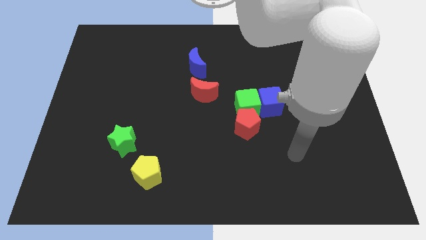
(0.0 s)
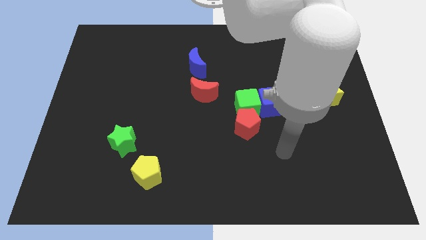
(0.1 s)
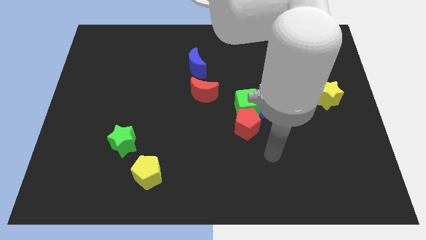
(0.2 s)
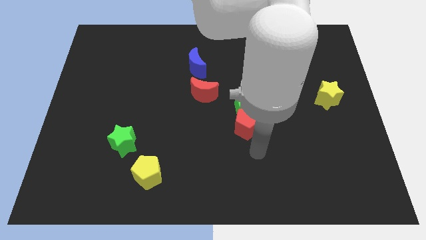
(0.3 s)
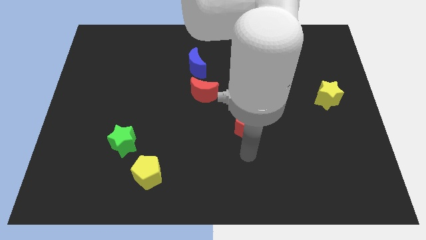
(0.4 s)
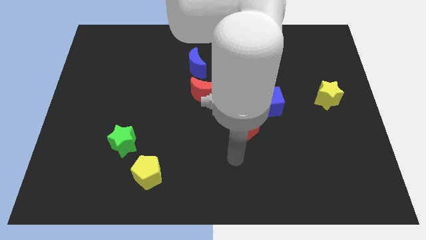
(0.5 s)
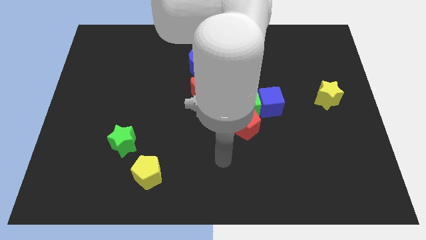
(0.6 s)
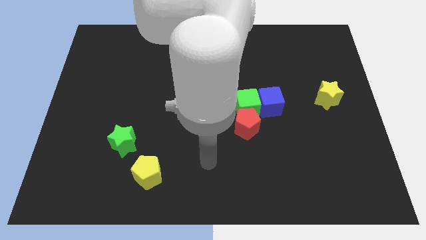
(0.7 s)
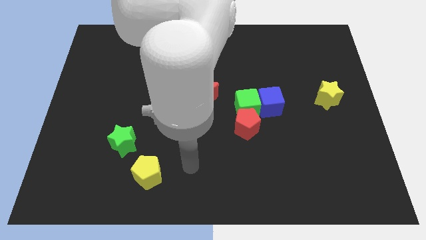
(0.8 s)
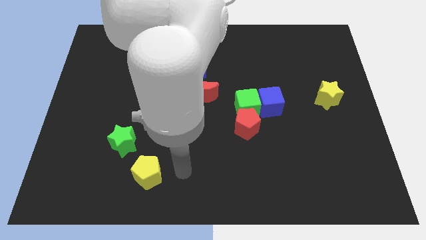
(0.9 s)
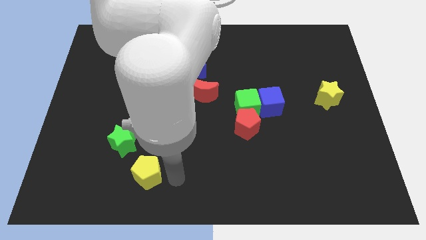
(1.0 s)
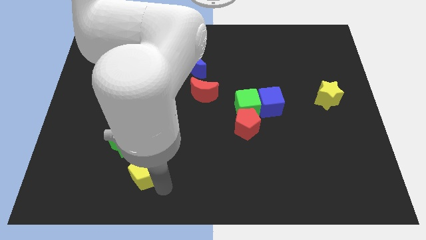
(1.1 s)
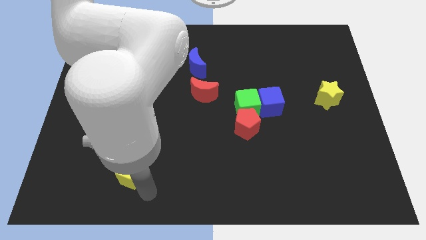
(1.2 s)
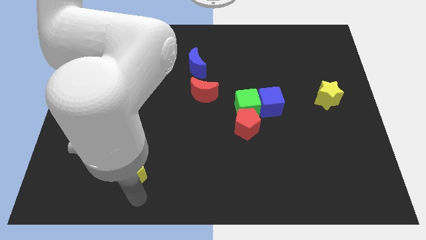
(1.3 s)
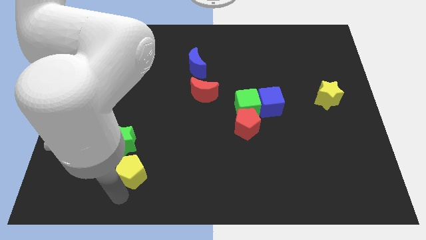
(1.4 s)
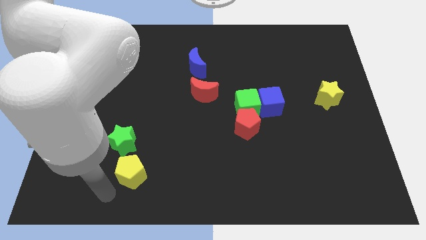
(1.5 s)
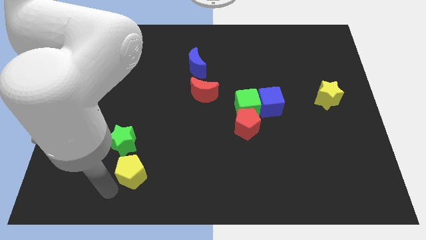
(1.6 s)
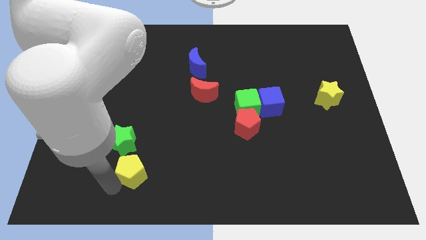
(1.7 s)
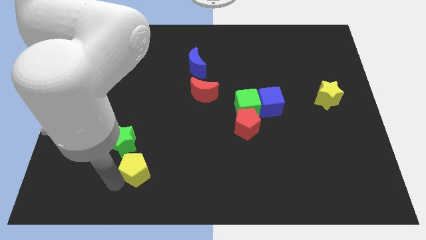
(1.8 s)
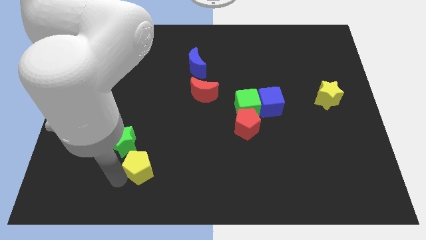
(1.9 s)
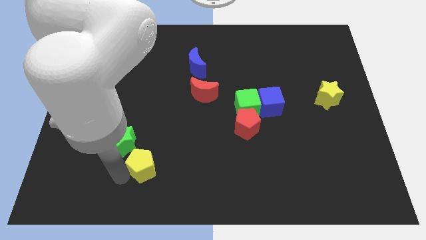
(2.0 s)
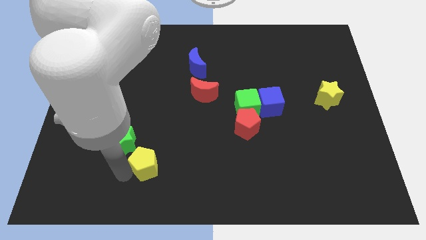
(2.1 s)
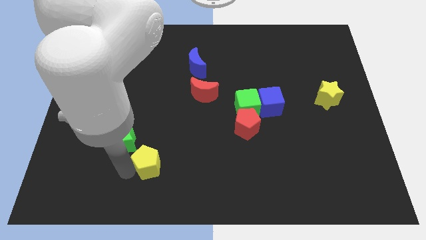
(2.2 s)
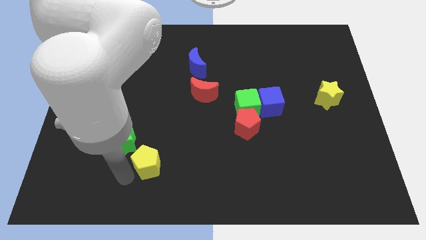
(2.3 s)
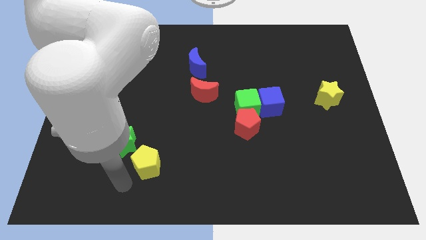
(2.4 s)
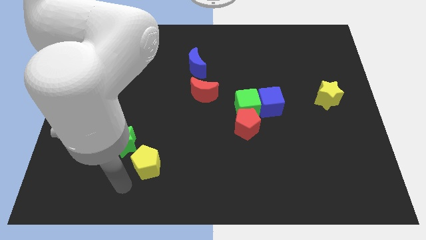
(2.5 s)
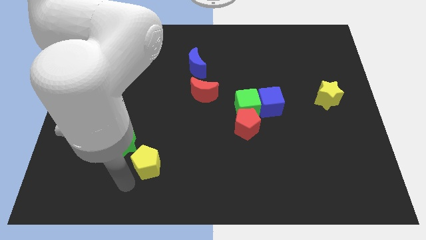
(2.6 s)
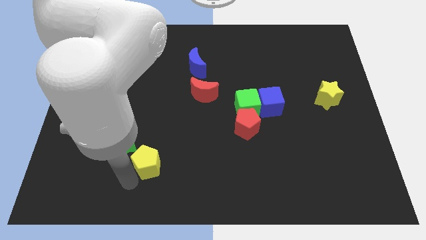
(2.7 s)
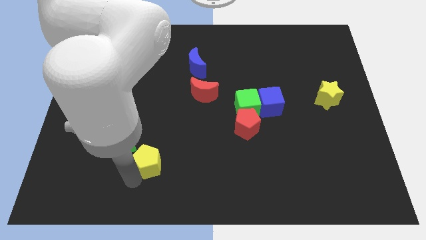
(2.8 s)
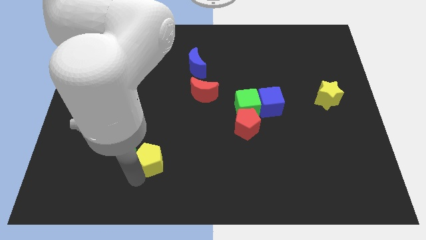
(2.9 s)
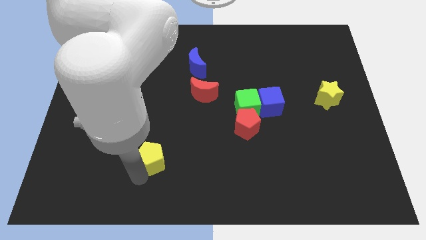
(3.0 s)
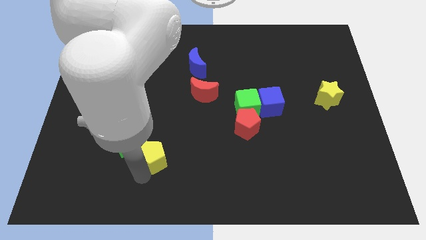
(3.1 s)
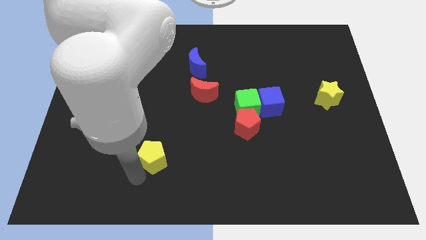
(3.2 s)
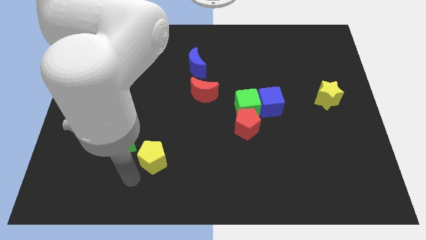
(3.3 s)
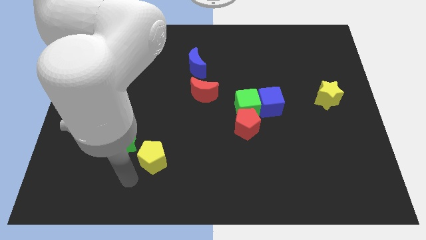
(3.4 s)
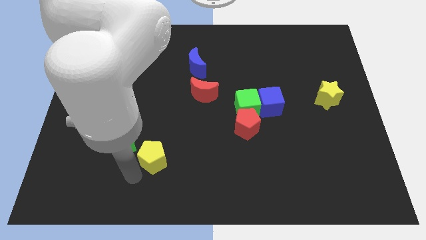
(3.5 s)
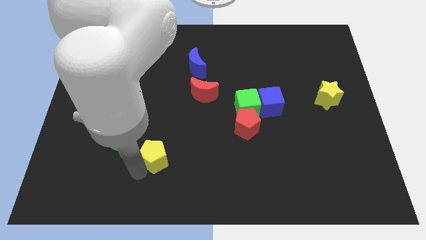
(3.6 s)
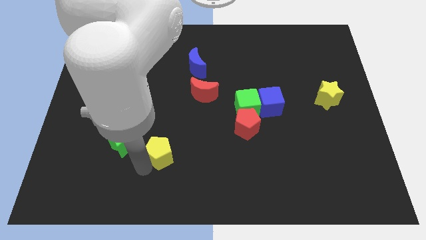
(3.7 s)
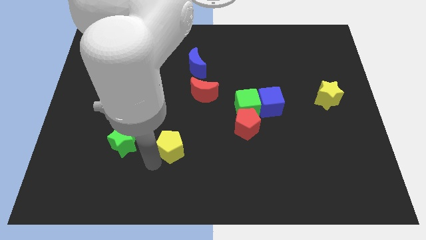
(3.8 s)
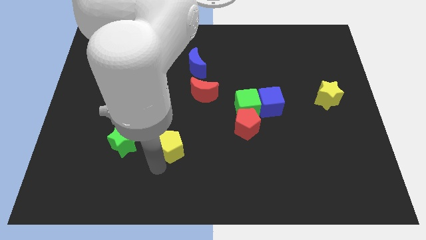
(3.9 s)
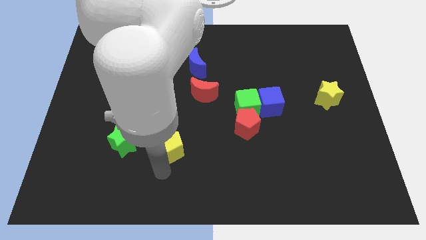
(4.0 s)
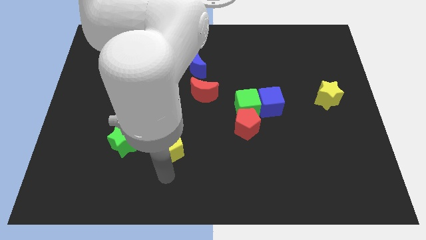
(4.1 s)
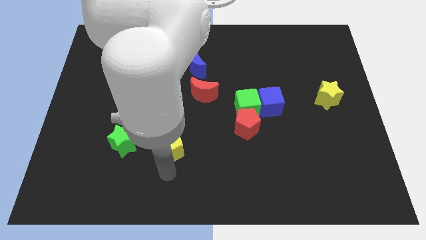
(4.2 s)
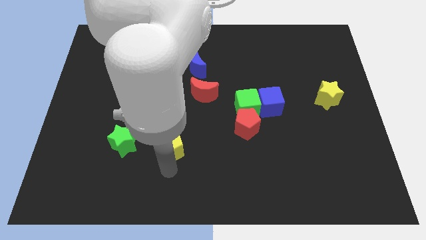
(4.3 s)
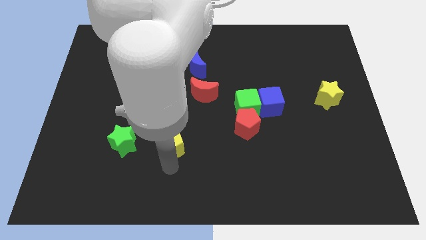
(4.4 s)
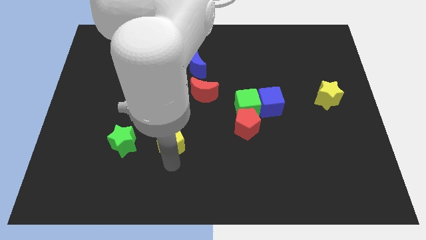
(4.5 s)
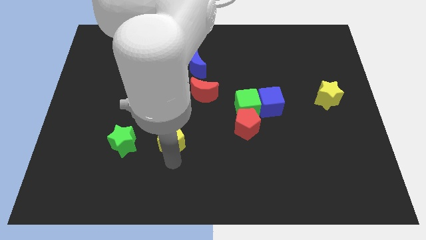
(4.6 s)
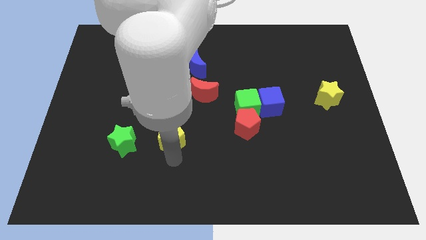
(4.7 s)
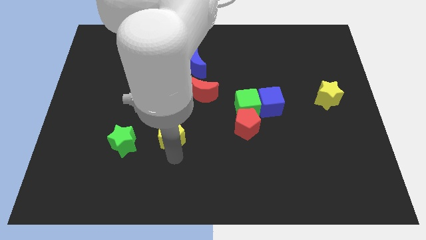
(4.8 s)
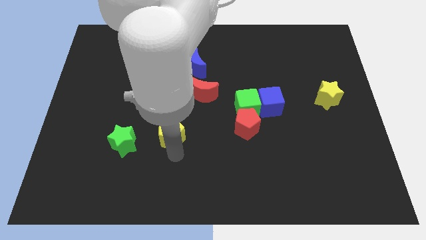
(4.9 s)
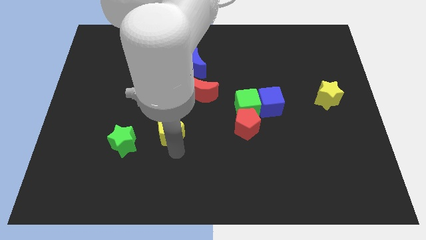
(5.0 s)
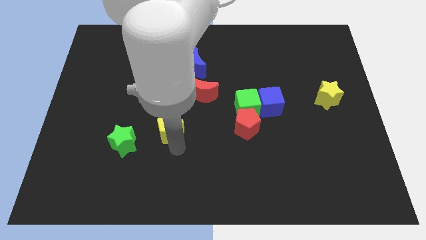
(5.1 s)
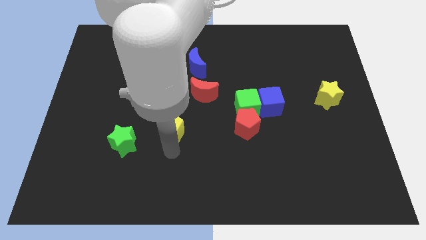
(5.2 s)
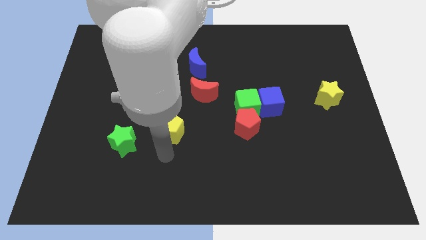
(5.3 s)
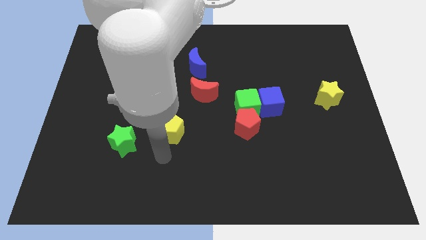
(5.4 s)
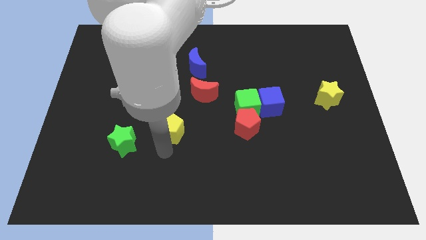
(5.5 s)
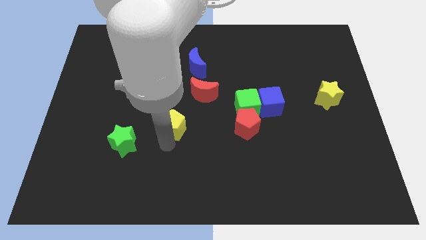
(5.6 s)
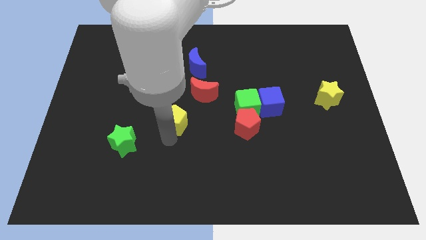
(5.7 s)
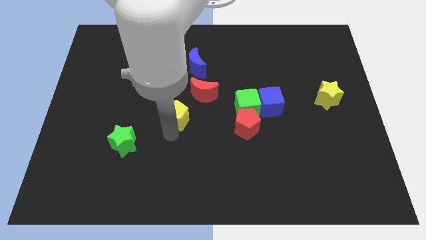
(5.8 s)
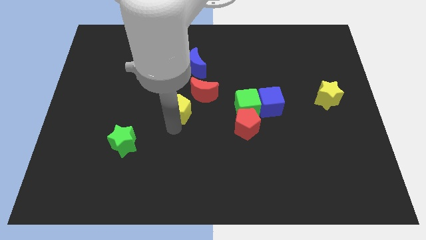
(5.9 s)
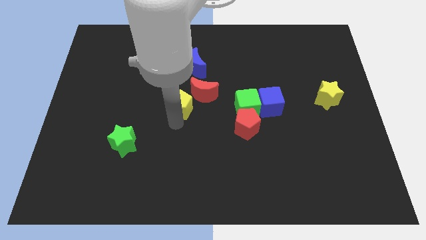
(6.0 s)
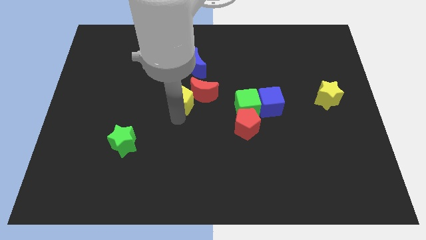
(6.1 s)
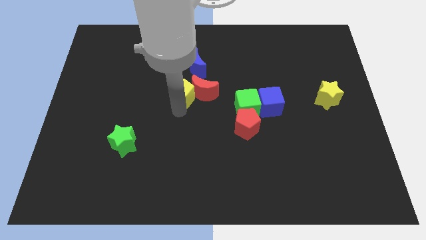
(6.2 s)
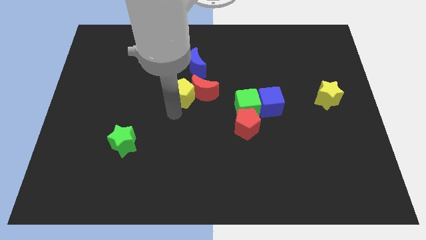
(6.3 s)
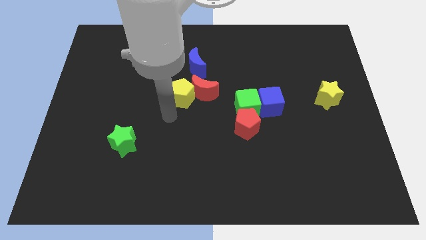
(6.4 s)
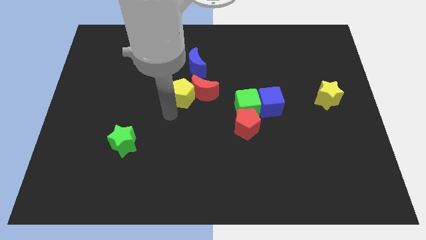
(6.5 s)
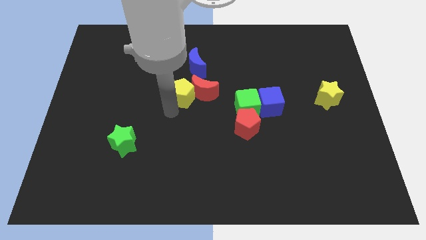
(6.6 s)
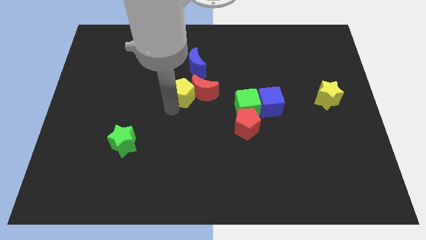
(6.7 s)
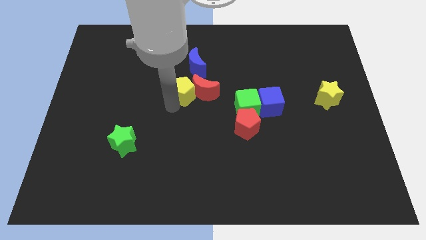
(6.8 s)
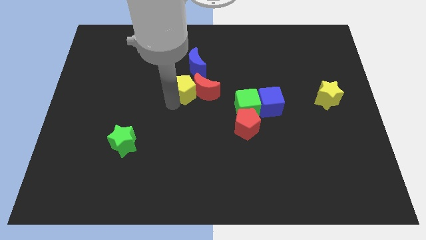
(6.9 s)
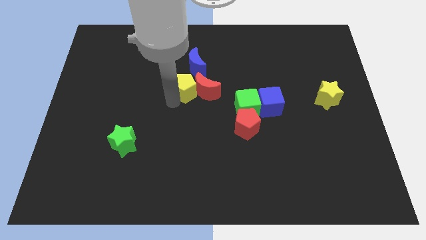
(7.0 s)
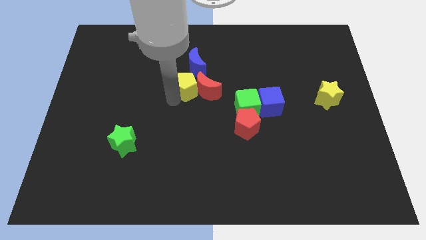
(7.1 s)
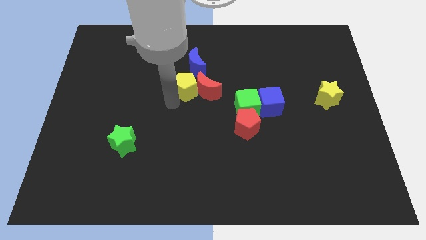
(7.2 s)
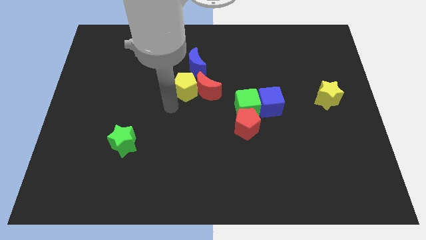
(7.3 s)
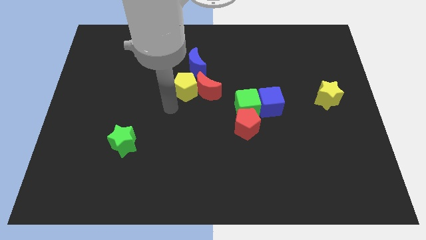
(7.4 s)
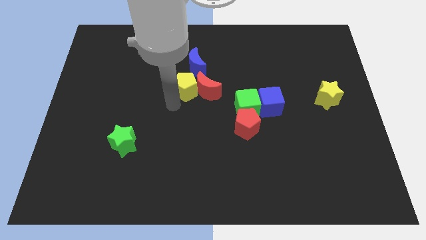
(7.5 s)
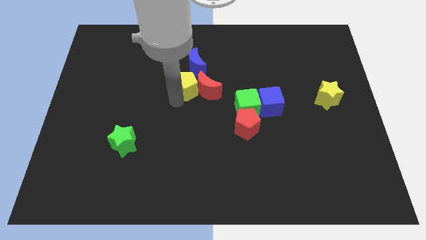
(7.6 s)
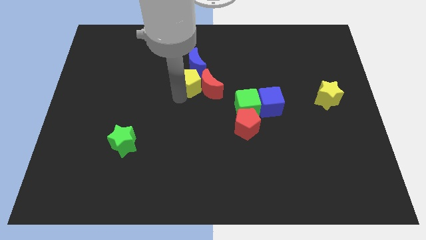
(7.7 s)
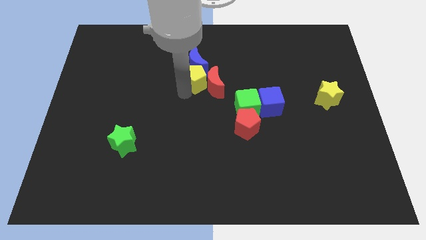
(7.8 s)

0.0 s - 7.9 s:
slide the yellow pentagon next to the blue moon

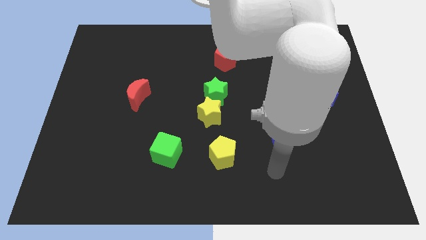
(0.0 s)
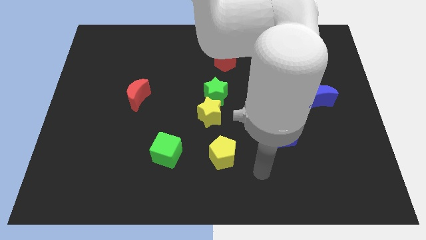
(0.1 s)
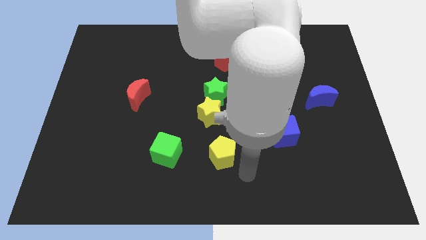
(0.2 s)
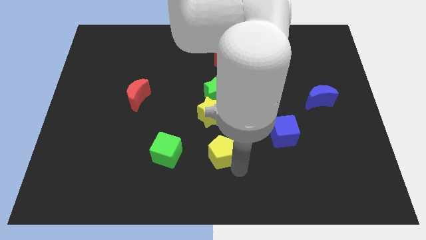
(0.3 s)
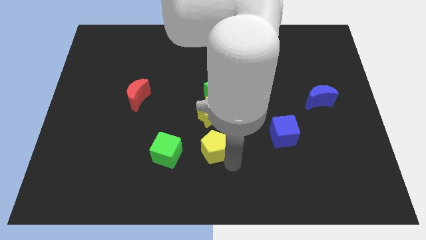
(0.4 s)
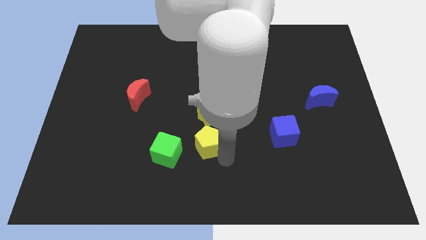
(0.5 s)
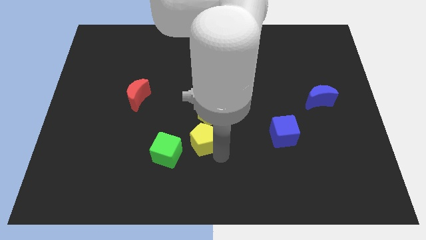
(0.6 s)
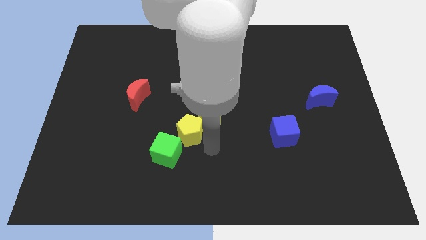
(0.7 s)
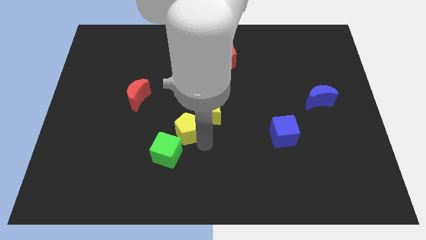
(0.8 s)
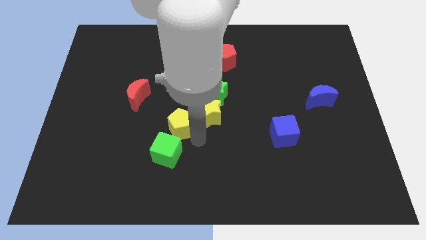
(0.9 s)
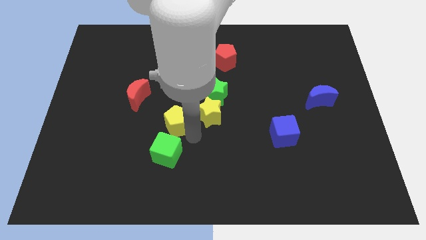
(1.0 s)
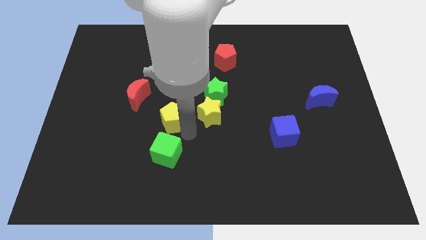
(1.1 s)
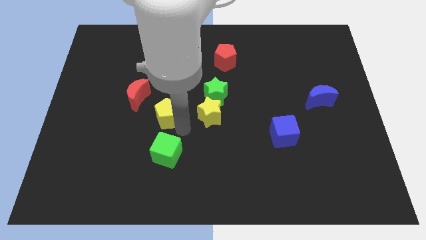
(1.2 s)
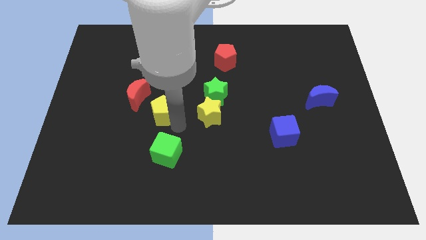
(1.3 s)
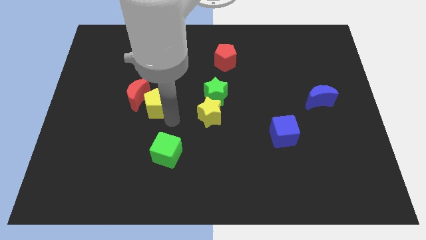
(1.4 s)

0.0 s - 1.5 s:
move the yellow pentagon close to the red moon
